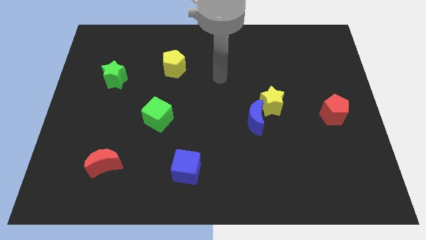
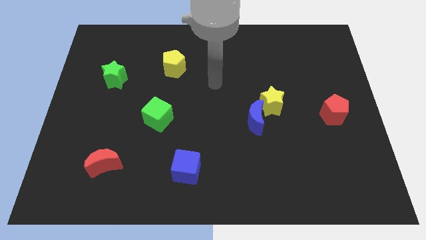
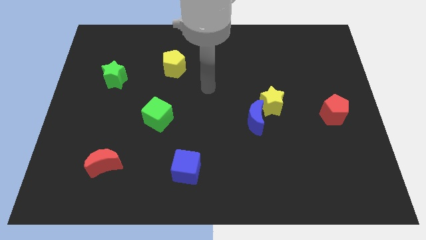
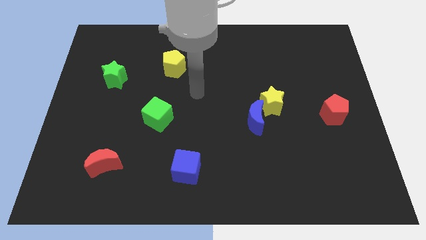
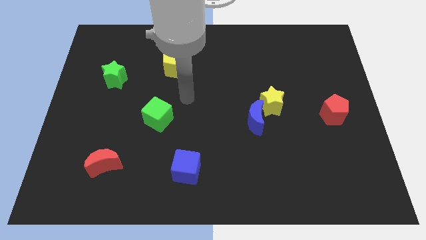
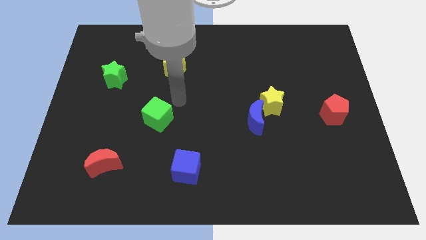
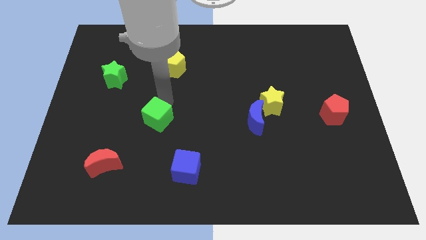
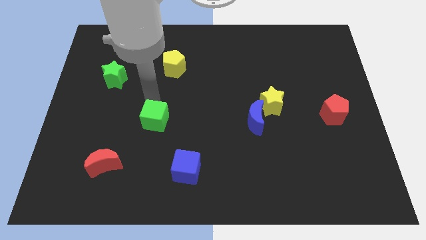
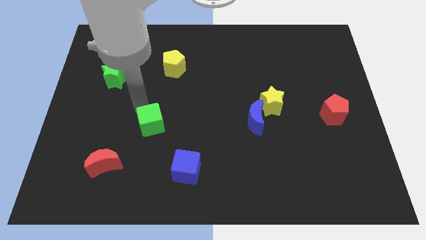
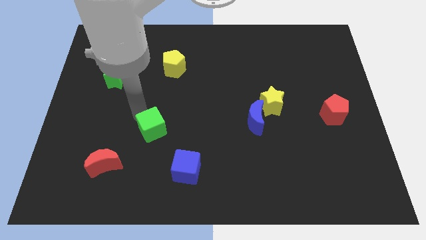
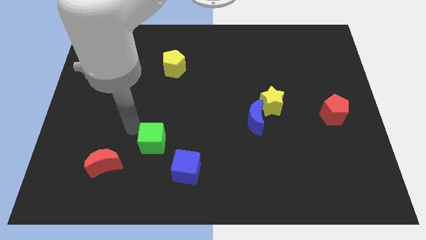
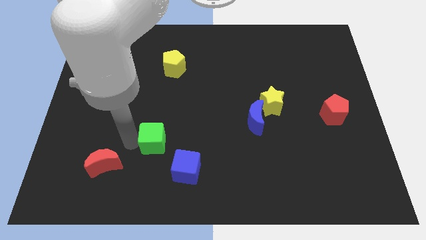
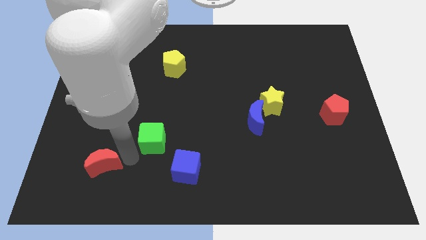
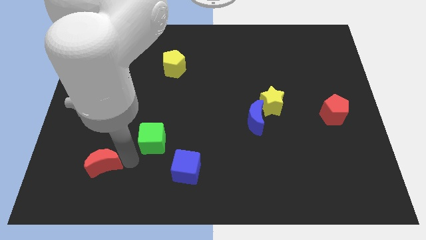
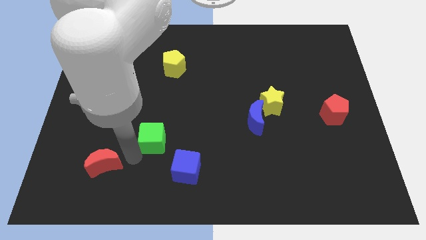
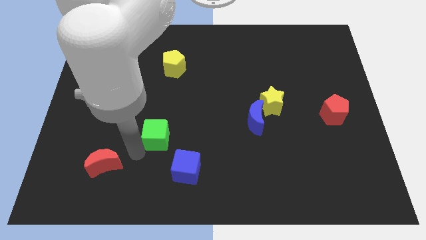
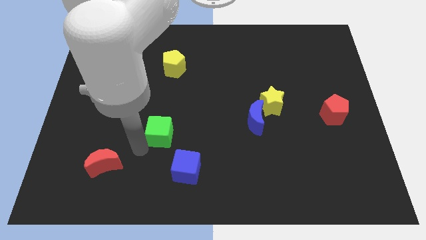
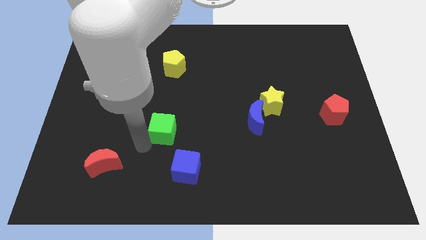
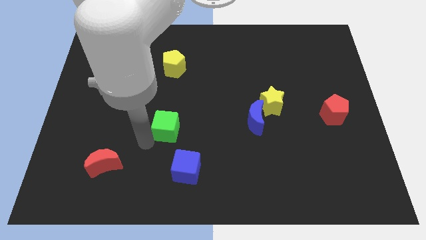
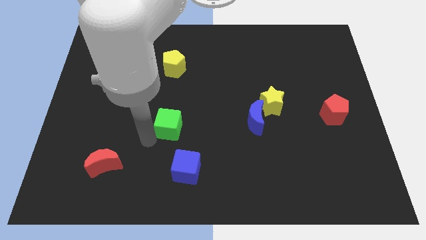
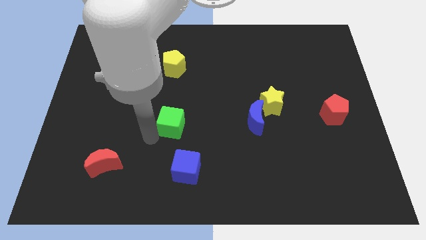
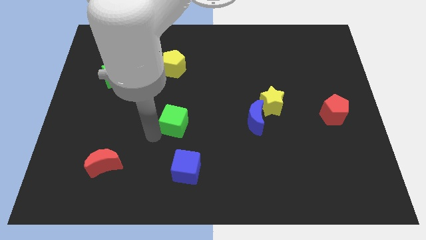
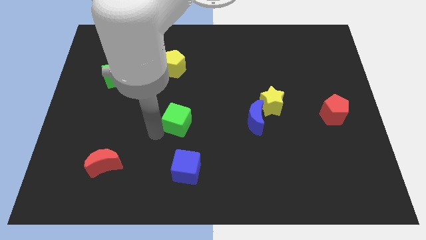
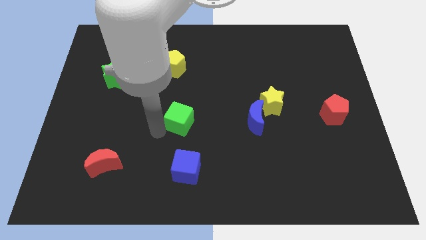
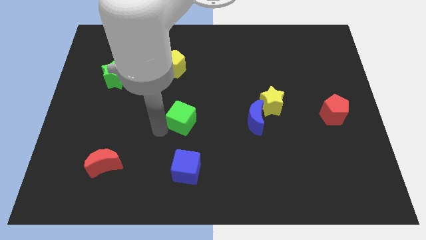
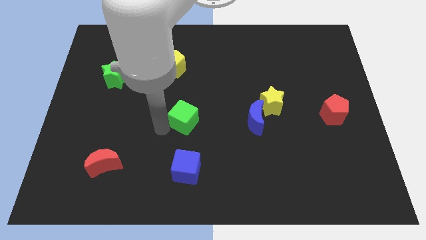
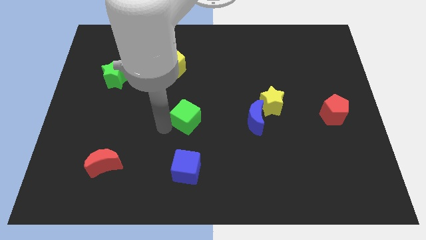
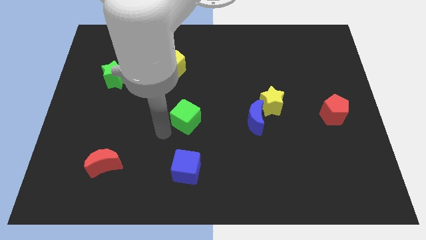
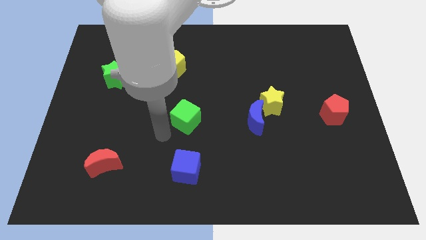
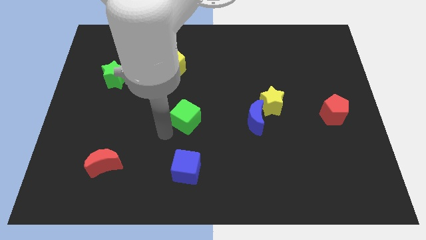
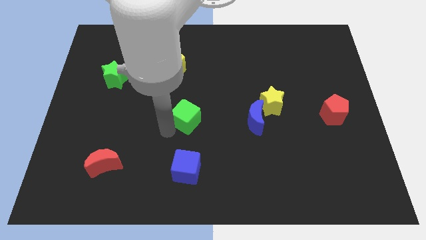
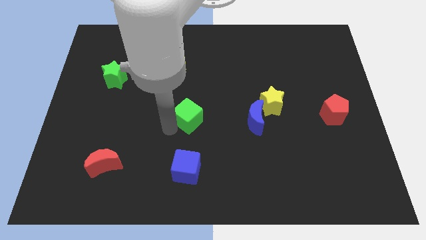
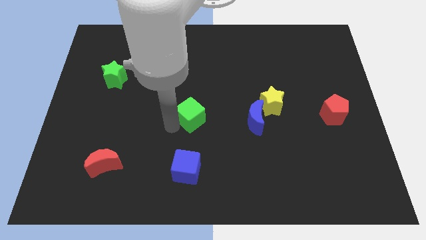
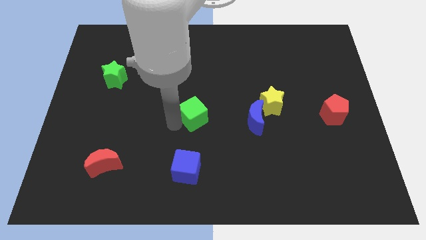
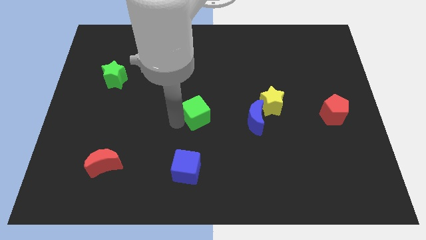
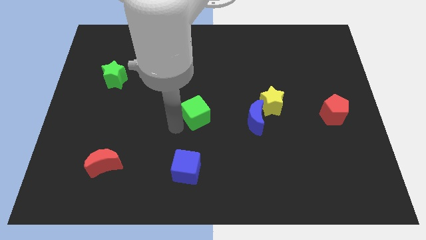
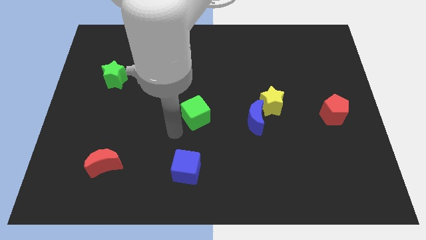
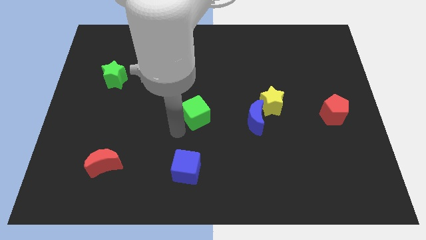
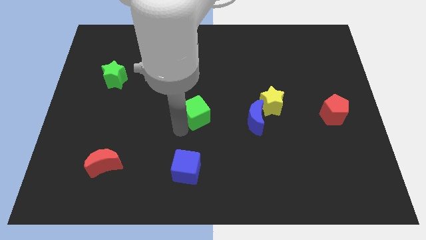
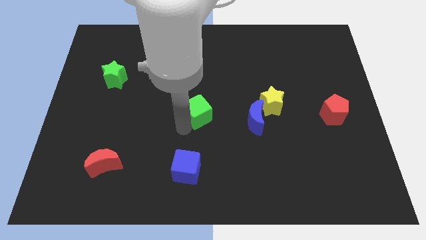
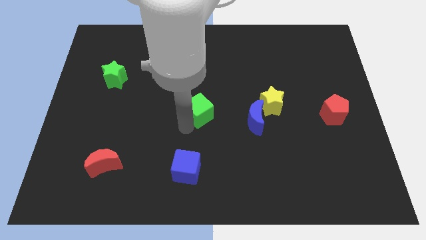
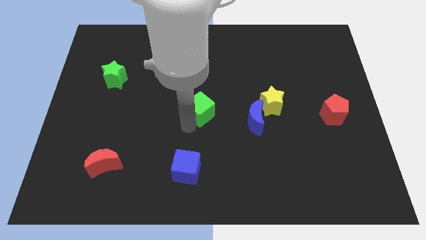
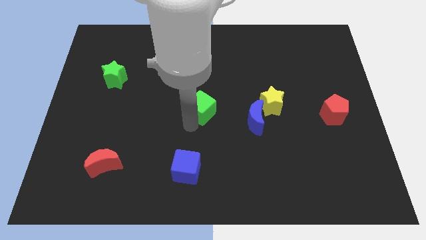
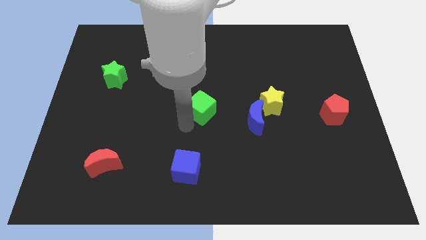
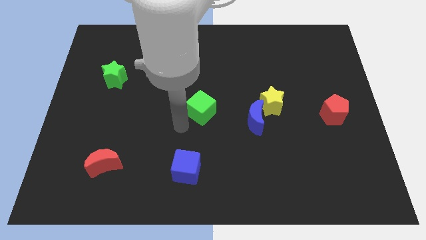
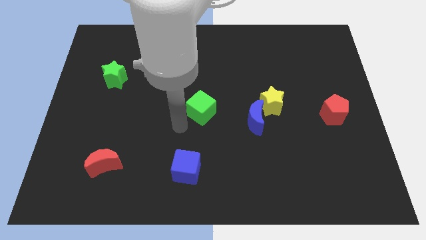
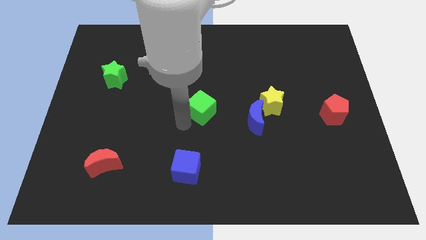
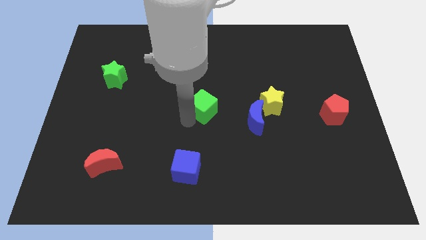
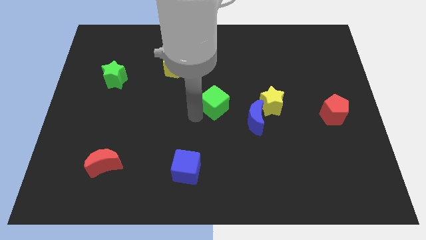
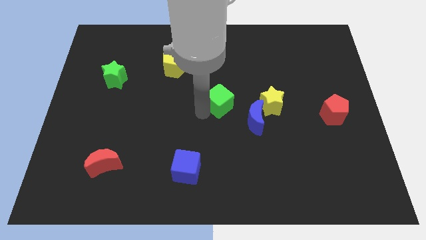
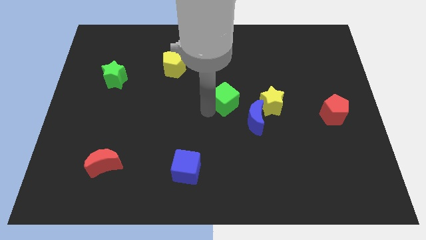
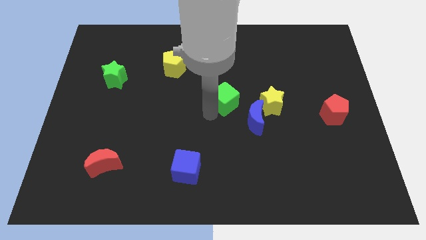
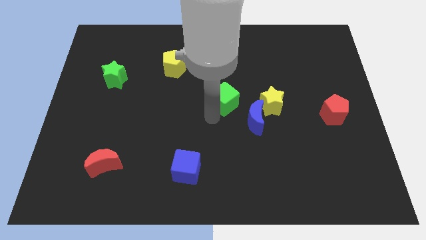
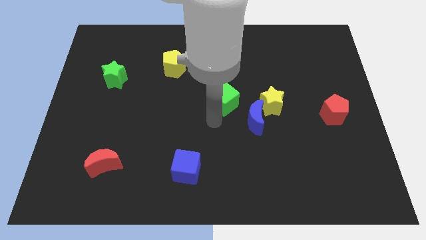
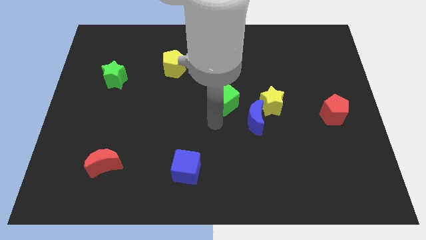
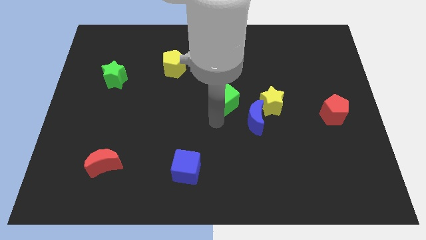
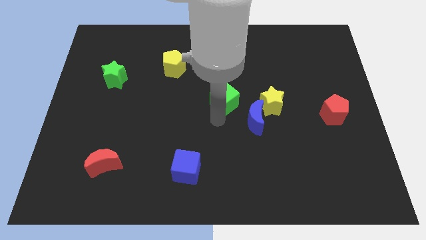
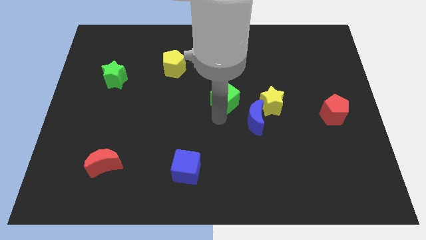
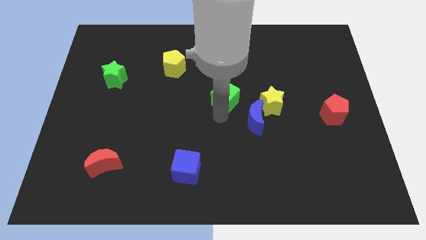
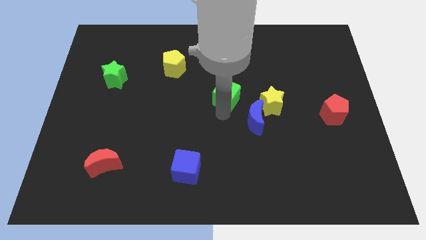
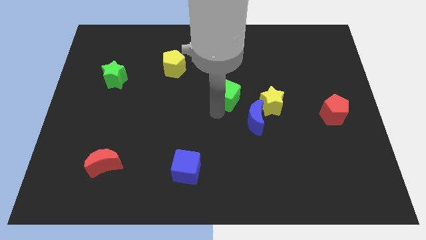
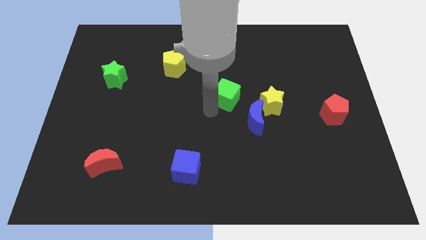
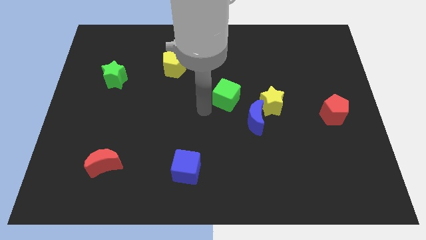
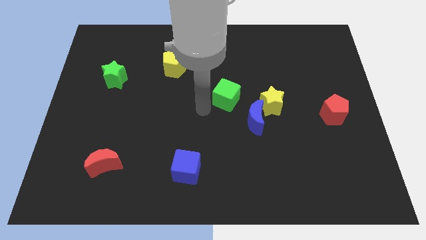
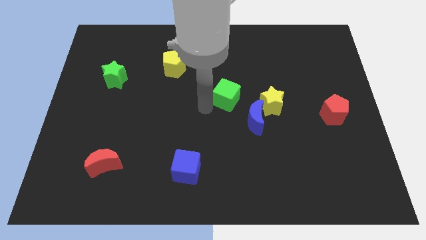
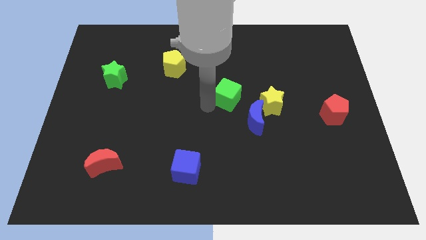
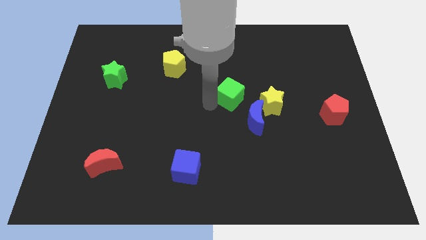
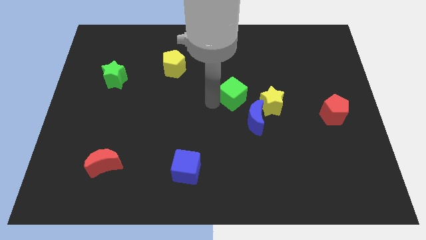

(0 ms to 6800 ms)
move the green cube to the top of the blue moon

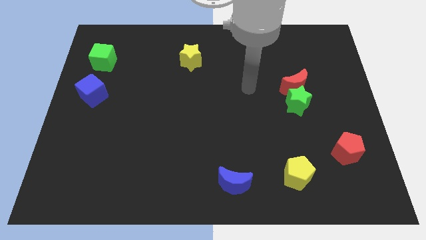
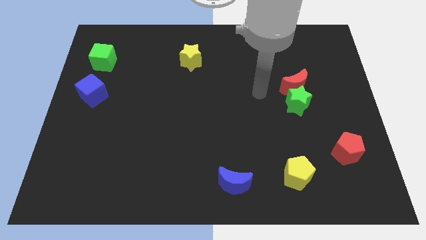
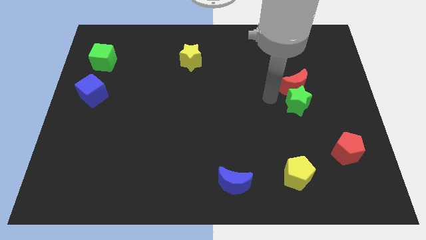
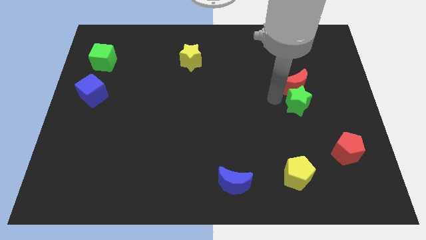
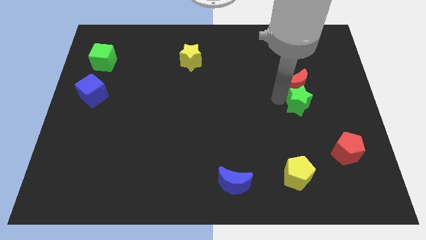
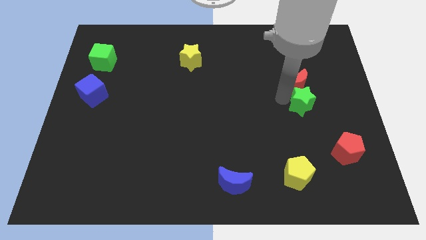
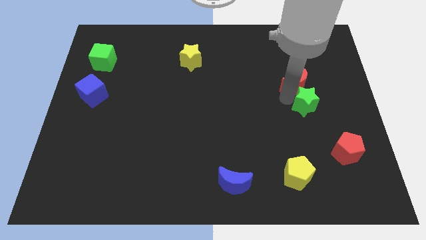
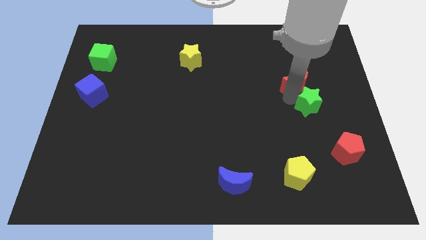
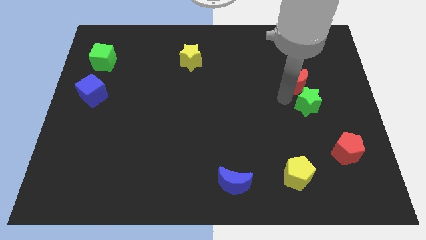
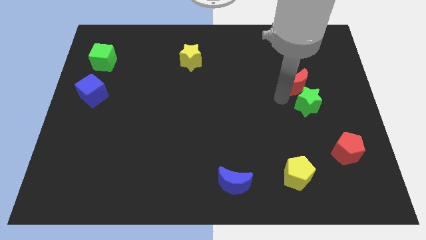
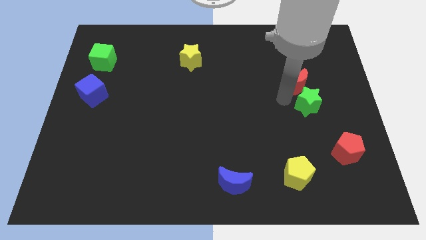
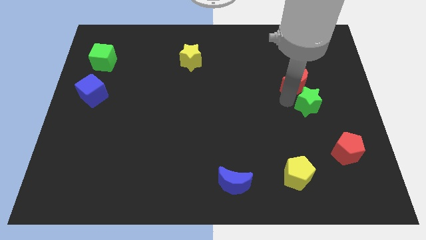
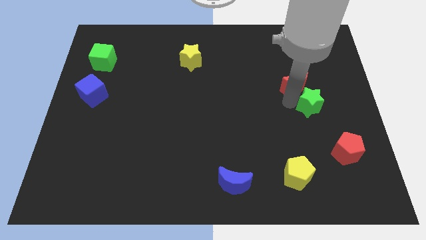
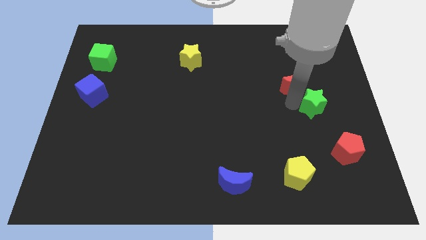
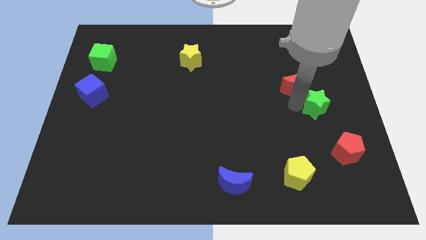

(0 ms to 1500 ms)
push the green star to the top side of the red pentagon
